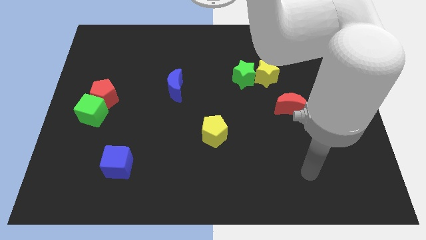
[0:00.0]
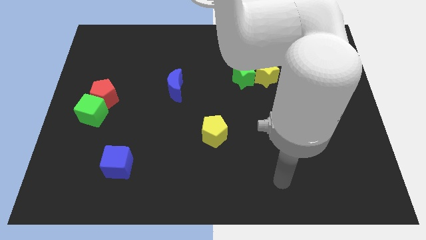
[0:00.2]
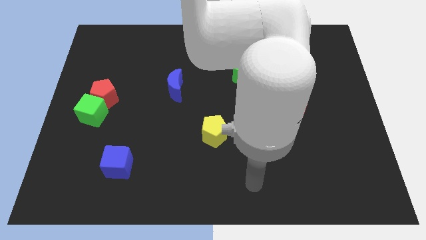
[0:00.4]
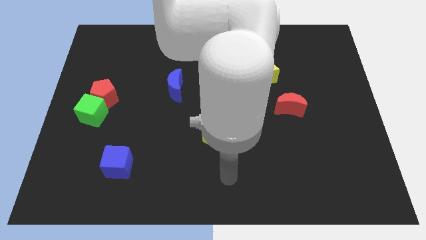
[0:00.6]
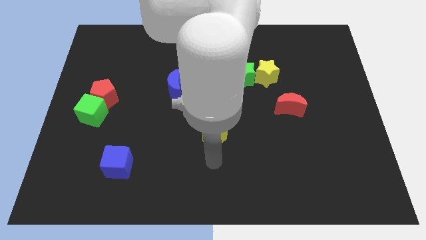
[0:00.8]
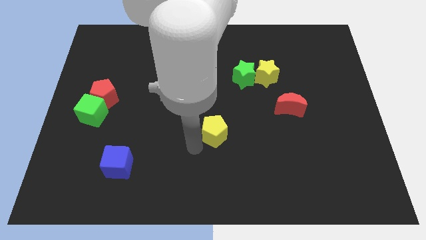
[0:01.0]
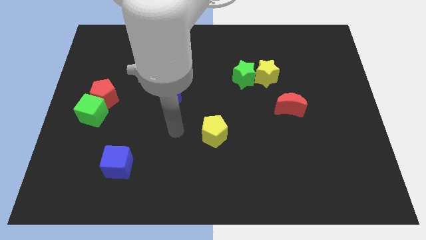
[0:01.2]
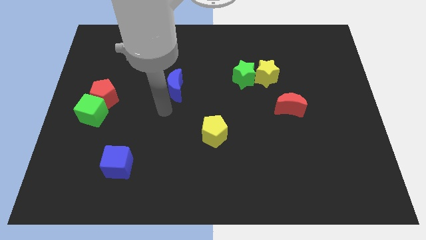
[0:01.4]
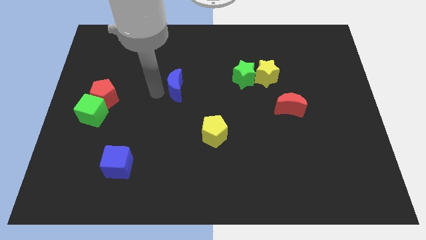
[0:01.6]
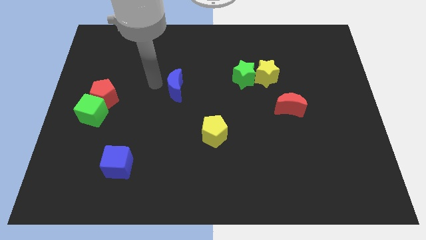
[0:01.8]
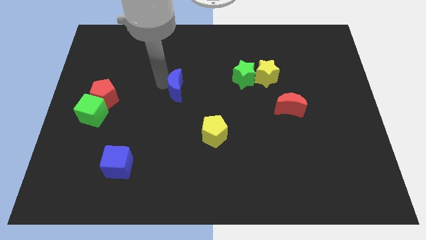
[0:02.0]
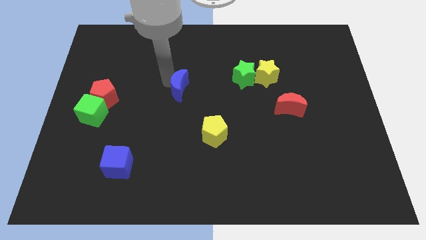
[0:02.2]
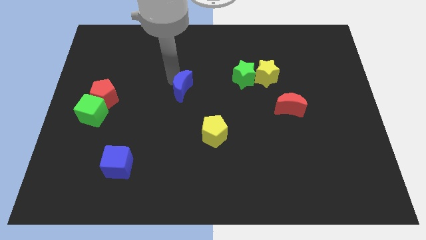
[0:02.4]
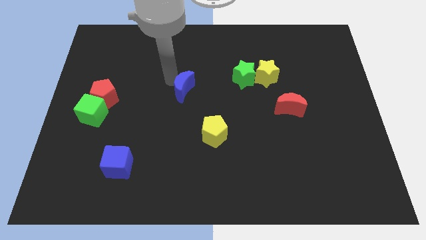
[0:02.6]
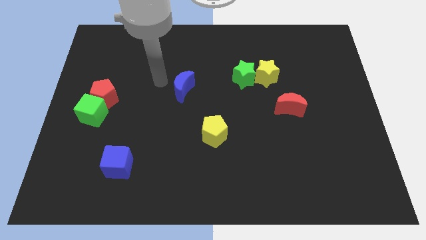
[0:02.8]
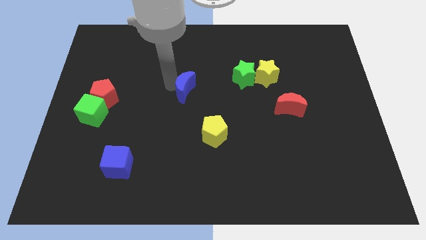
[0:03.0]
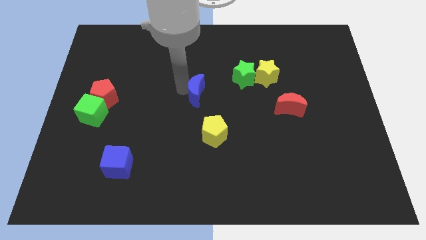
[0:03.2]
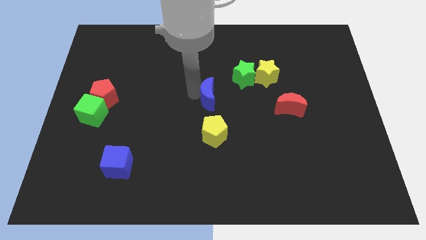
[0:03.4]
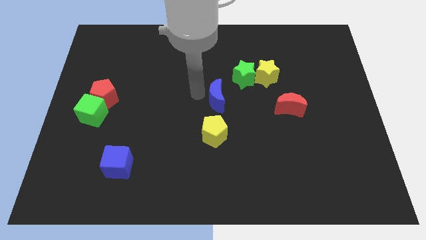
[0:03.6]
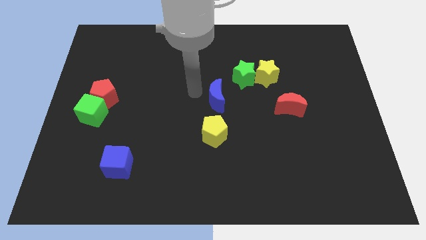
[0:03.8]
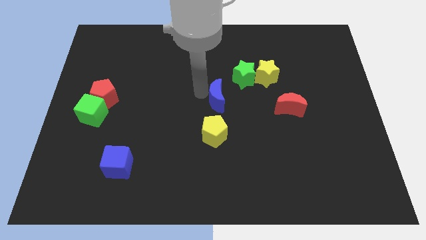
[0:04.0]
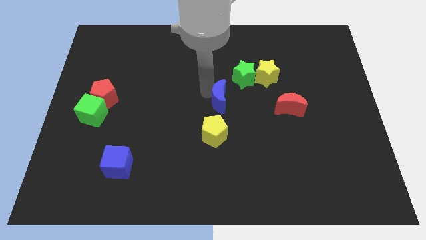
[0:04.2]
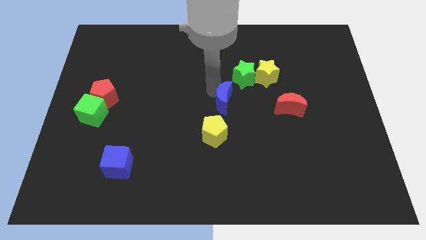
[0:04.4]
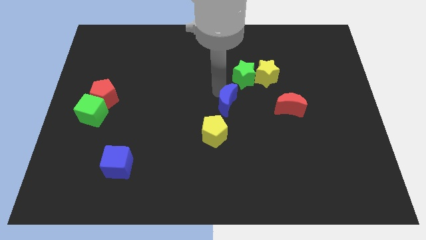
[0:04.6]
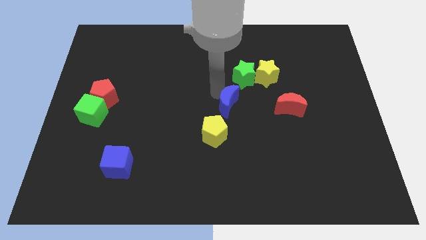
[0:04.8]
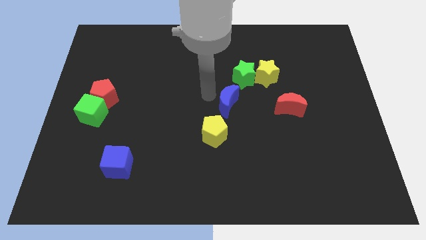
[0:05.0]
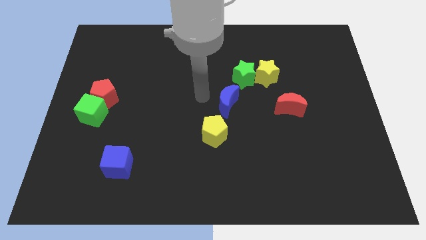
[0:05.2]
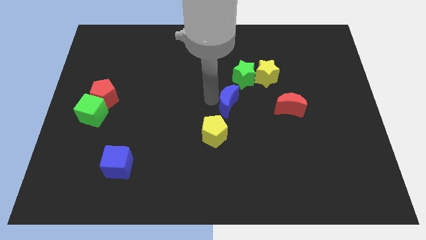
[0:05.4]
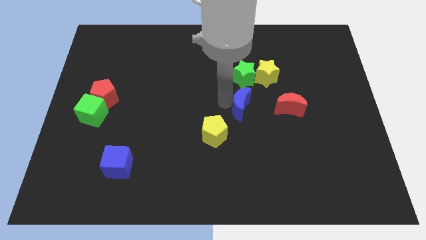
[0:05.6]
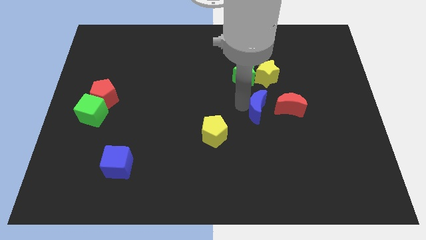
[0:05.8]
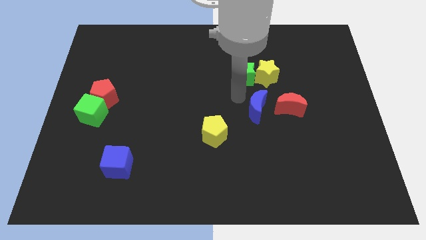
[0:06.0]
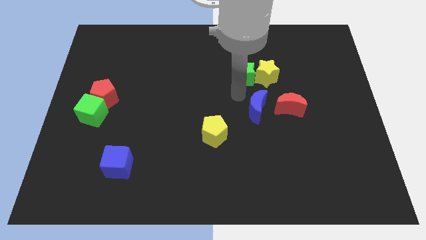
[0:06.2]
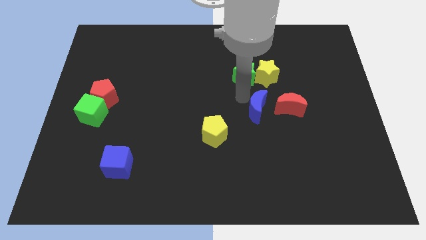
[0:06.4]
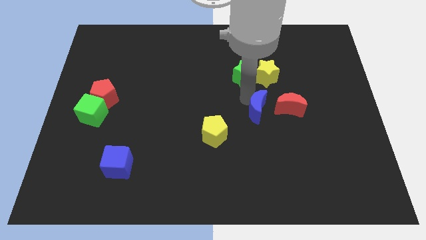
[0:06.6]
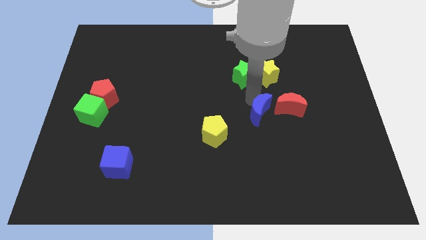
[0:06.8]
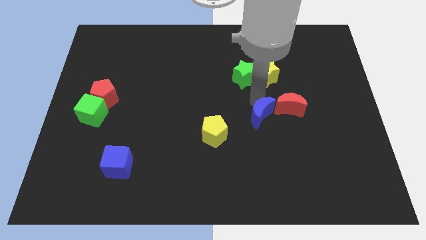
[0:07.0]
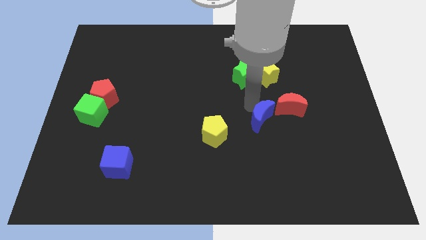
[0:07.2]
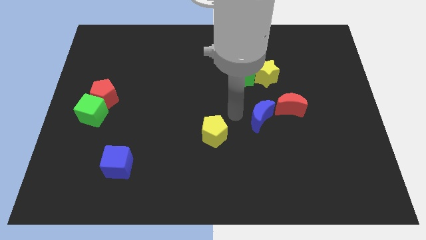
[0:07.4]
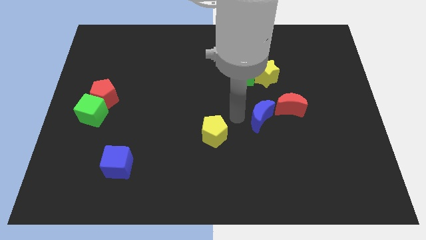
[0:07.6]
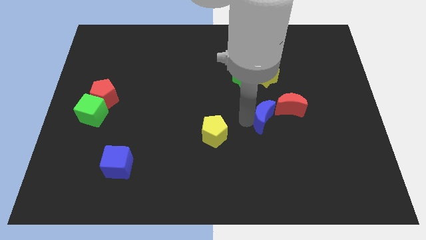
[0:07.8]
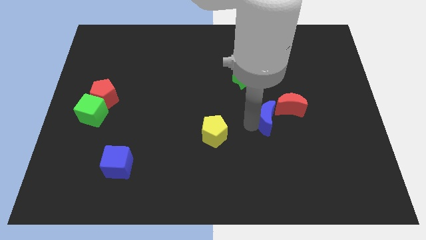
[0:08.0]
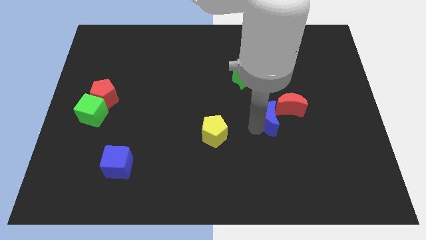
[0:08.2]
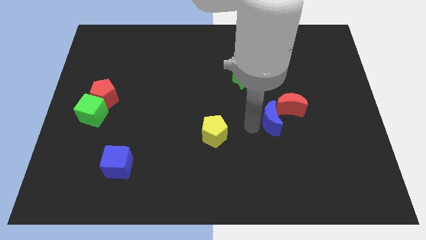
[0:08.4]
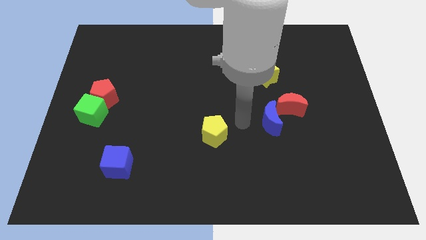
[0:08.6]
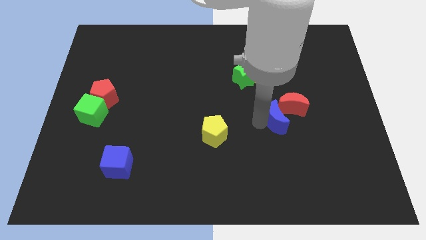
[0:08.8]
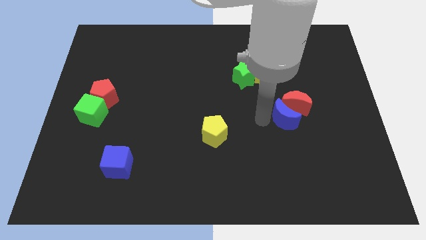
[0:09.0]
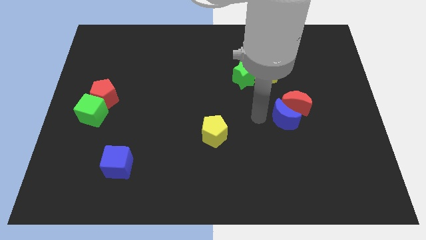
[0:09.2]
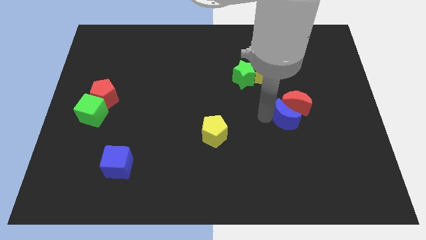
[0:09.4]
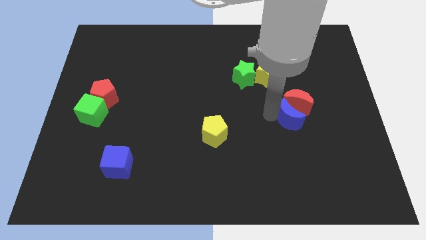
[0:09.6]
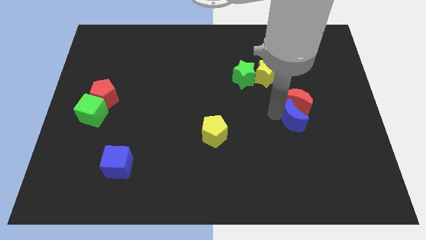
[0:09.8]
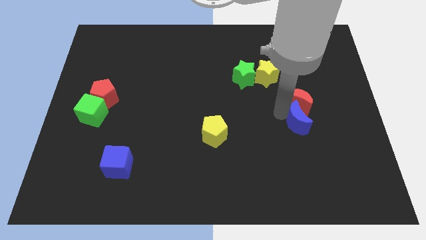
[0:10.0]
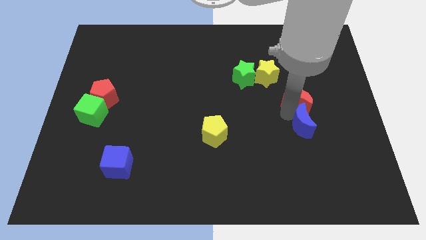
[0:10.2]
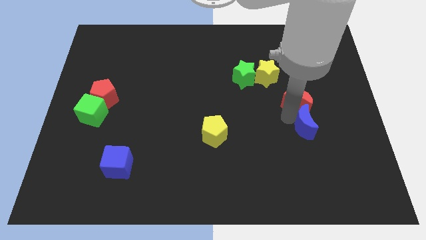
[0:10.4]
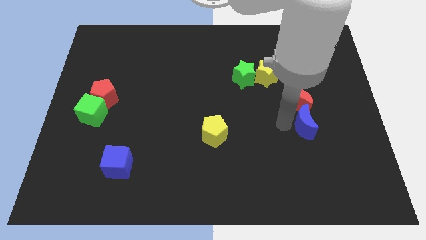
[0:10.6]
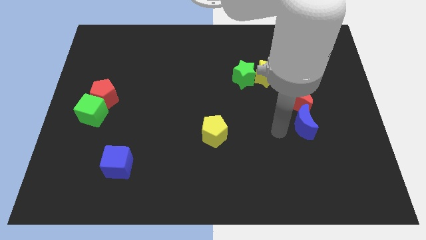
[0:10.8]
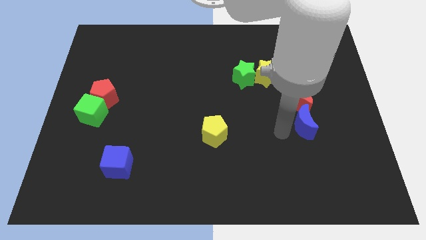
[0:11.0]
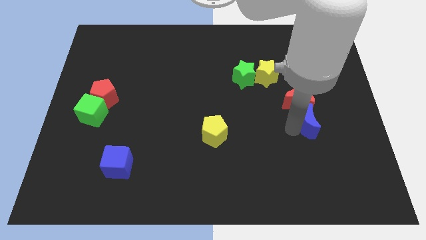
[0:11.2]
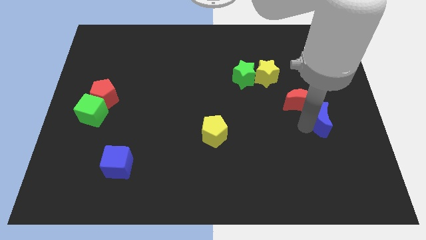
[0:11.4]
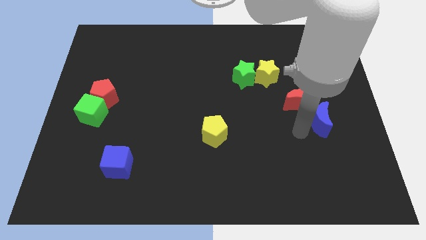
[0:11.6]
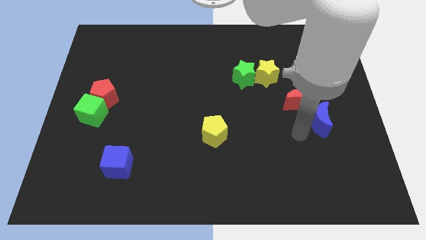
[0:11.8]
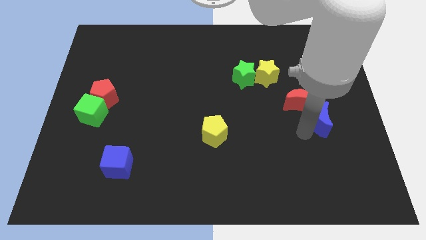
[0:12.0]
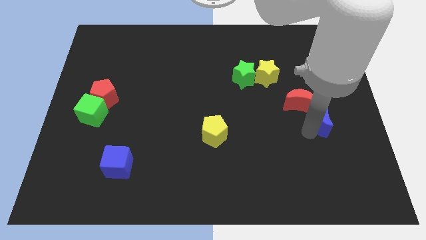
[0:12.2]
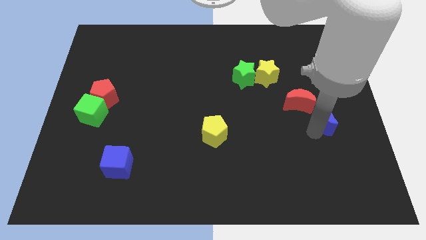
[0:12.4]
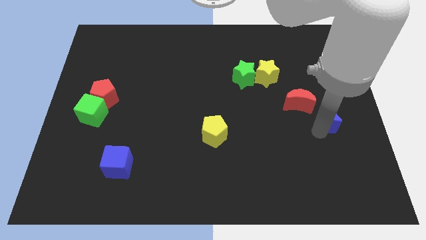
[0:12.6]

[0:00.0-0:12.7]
move the blue moon to the center right
